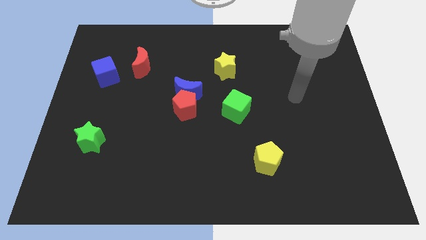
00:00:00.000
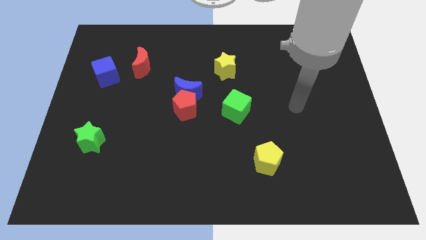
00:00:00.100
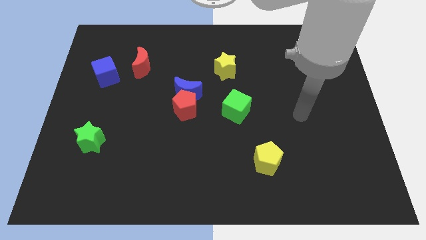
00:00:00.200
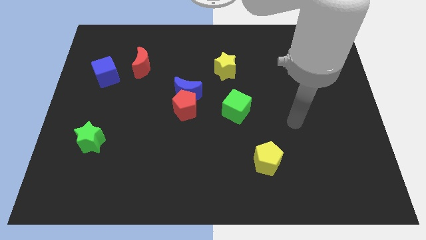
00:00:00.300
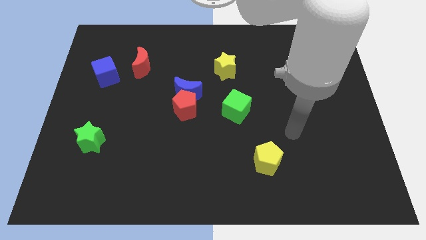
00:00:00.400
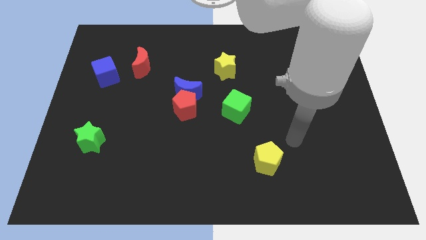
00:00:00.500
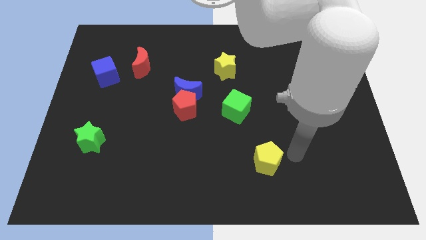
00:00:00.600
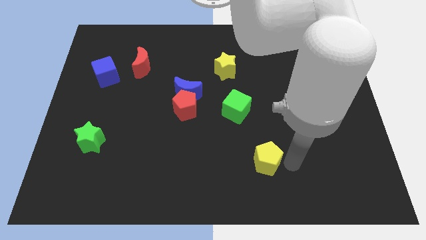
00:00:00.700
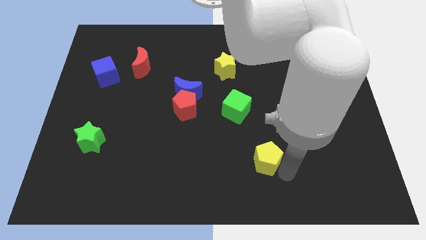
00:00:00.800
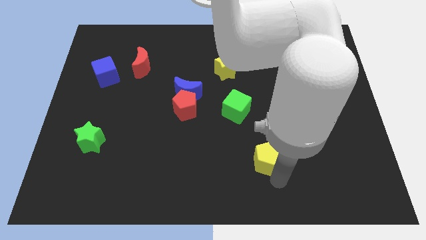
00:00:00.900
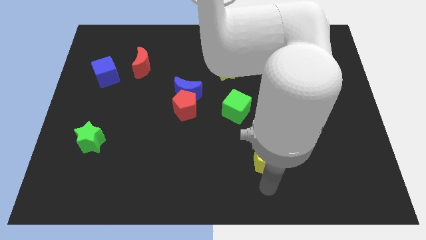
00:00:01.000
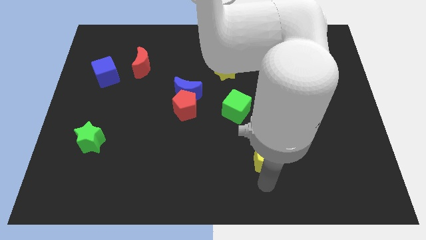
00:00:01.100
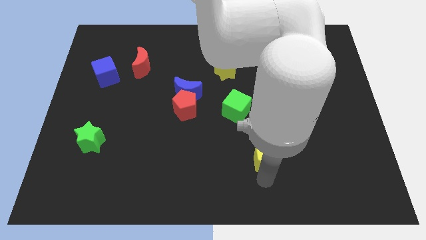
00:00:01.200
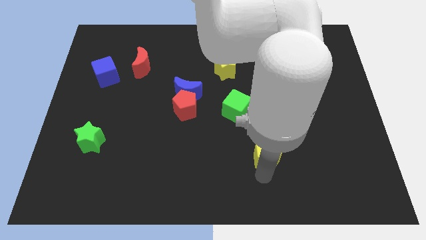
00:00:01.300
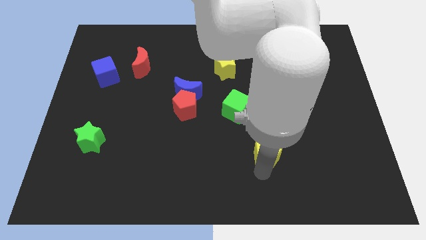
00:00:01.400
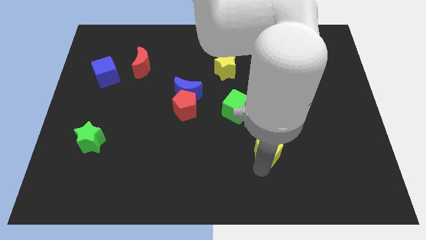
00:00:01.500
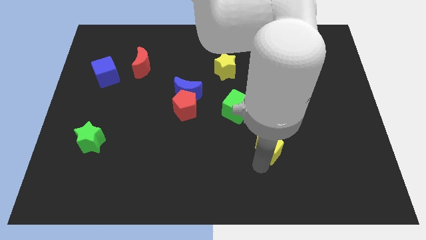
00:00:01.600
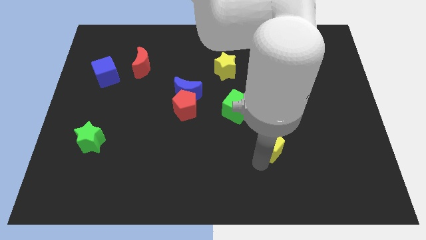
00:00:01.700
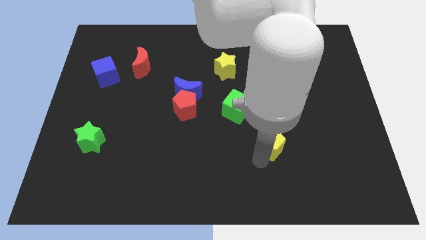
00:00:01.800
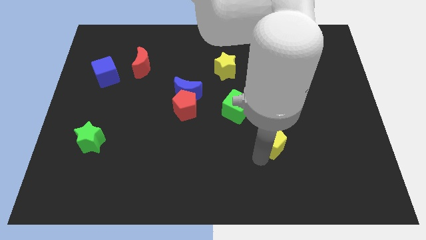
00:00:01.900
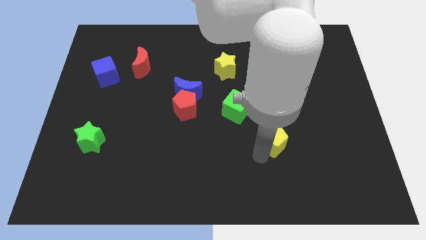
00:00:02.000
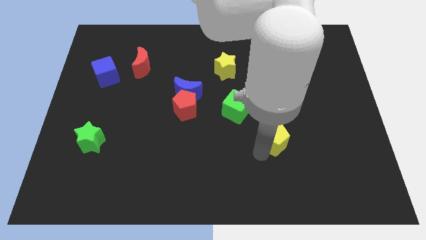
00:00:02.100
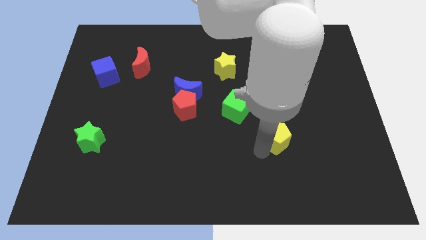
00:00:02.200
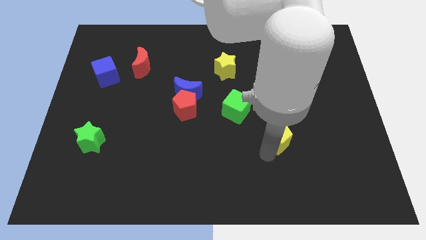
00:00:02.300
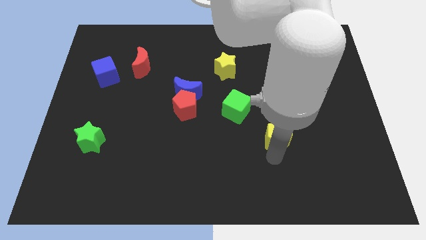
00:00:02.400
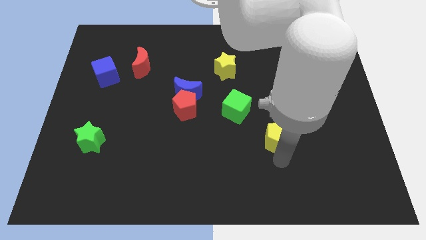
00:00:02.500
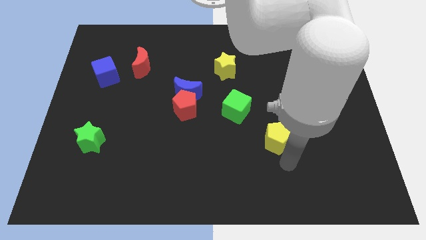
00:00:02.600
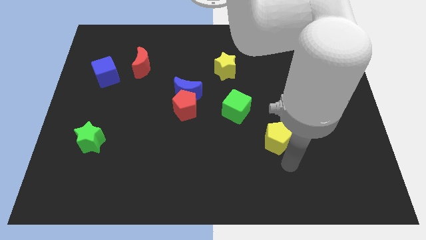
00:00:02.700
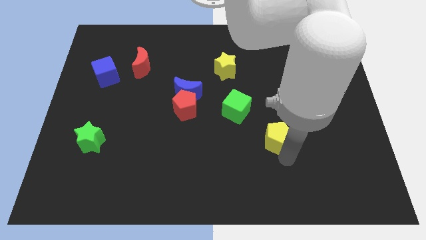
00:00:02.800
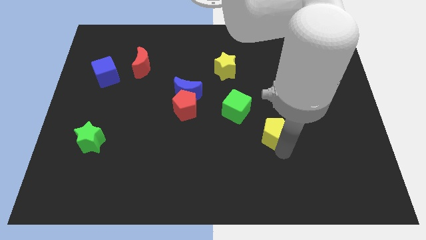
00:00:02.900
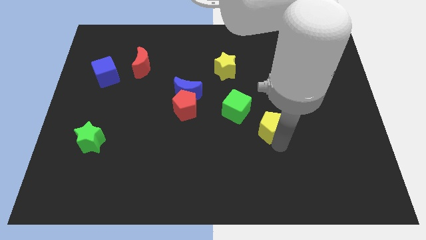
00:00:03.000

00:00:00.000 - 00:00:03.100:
slightly slide the yellow pentagon up

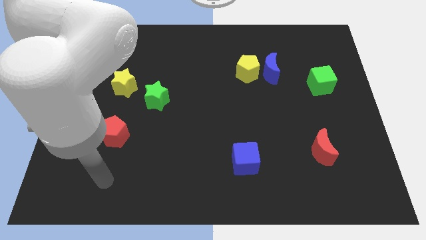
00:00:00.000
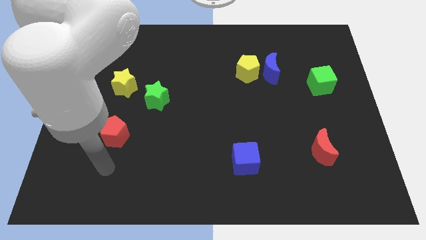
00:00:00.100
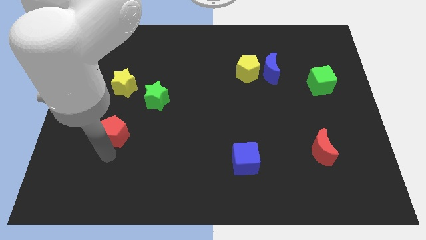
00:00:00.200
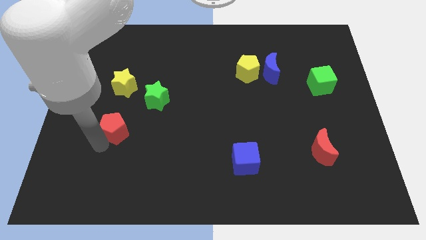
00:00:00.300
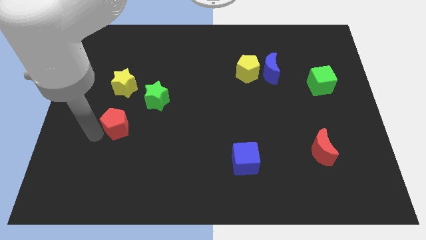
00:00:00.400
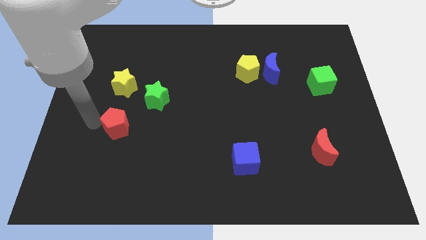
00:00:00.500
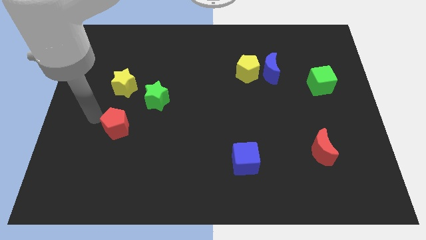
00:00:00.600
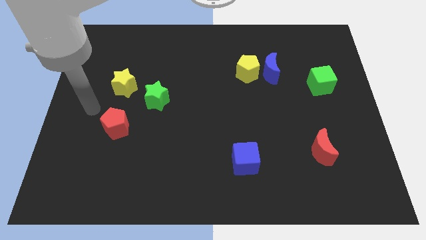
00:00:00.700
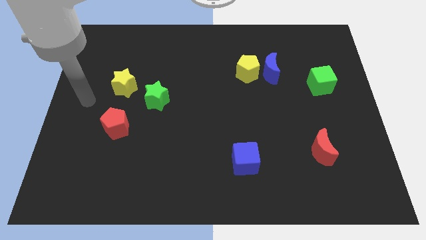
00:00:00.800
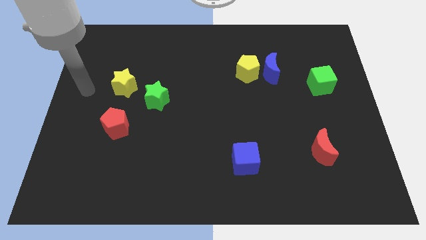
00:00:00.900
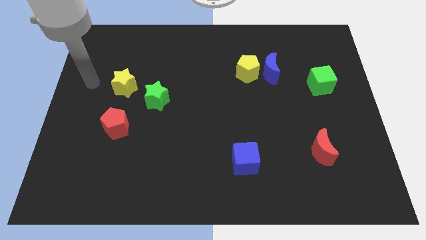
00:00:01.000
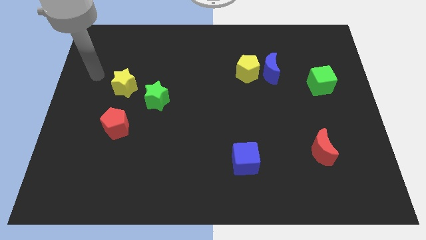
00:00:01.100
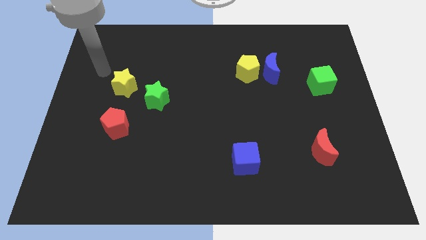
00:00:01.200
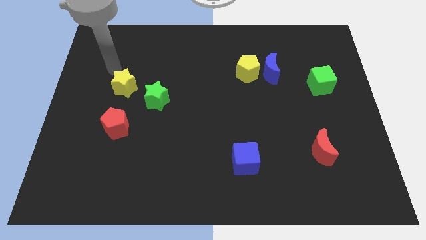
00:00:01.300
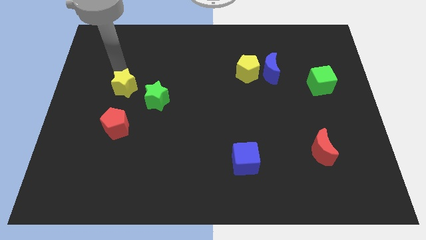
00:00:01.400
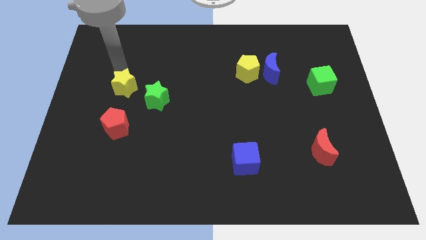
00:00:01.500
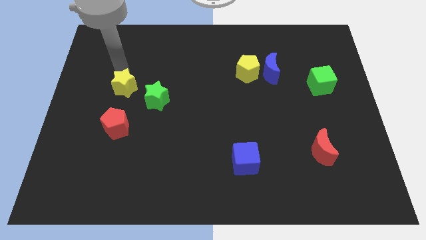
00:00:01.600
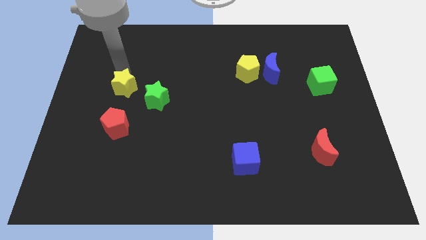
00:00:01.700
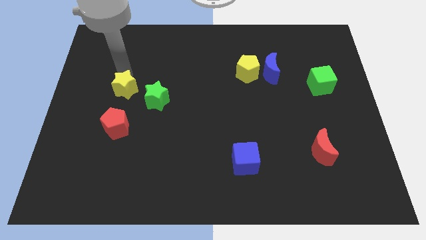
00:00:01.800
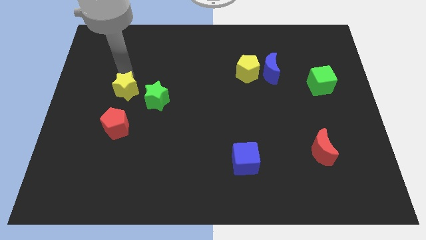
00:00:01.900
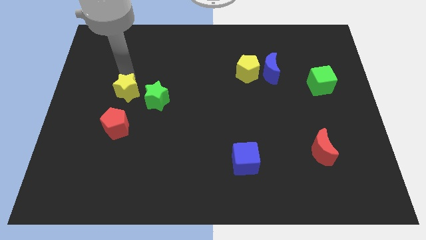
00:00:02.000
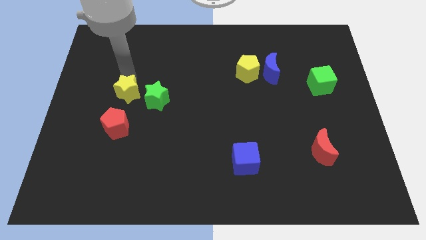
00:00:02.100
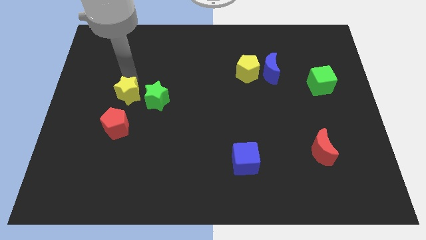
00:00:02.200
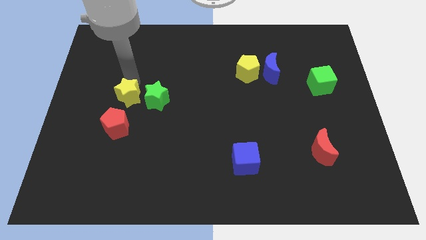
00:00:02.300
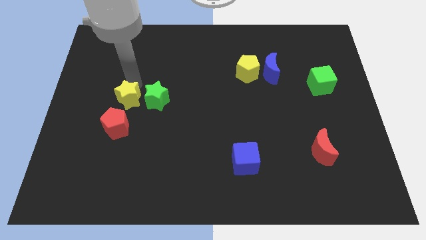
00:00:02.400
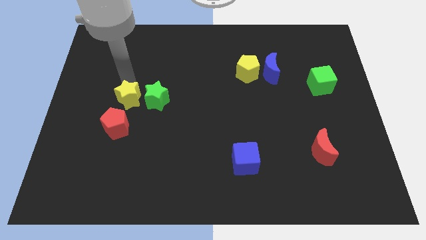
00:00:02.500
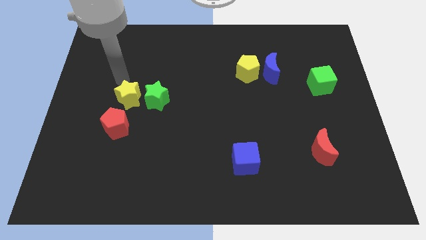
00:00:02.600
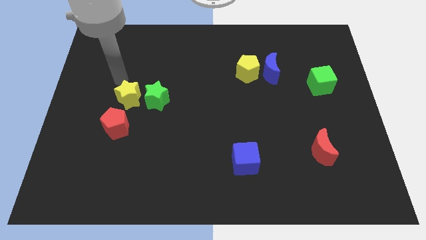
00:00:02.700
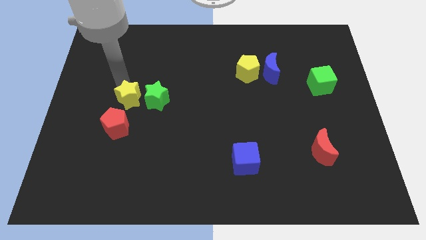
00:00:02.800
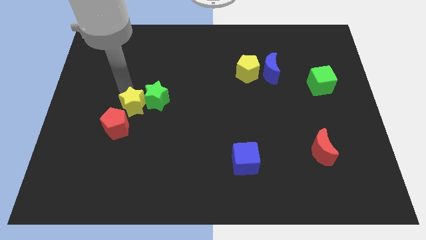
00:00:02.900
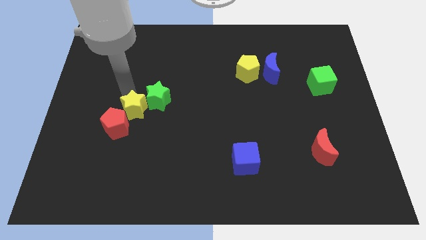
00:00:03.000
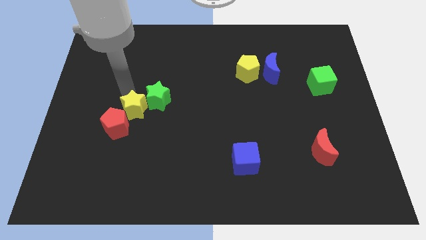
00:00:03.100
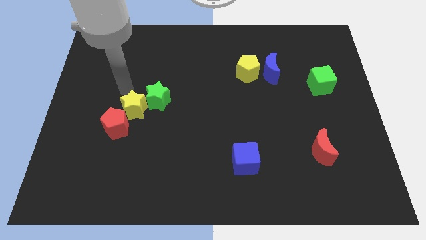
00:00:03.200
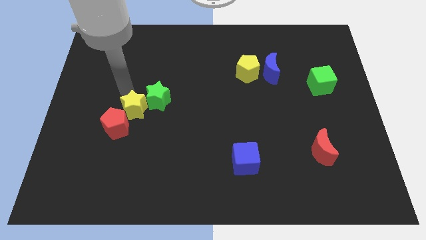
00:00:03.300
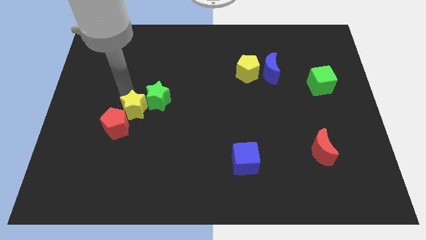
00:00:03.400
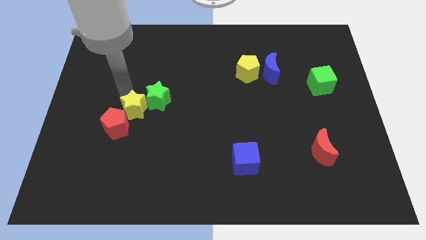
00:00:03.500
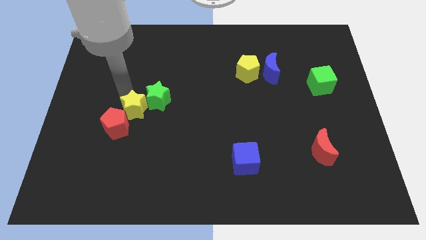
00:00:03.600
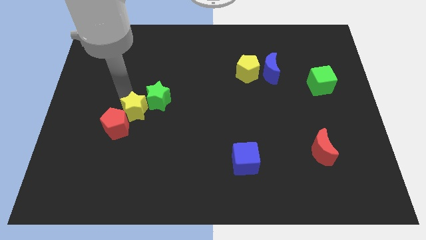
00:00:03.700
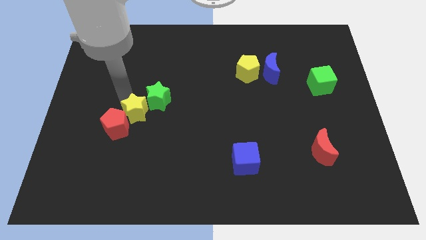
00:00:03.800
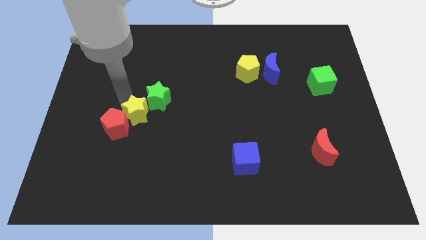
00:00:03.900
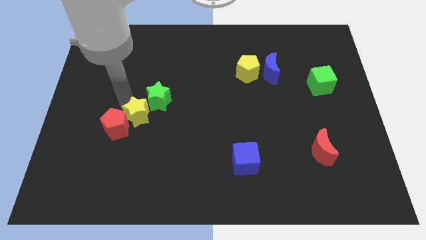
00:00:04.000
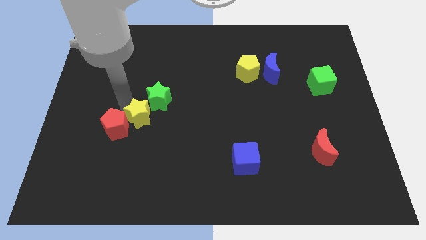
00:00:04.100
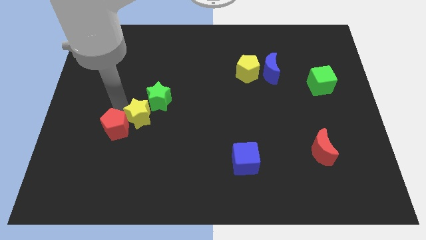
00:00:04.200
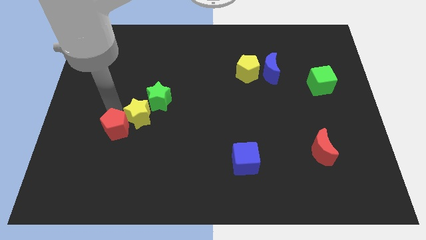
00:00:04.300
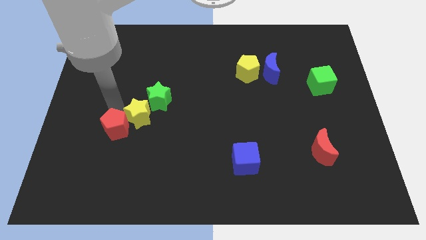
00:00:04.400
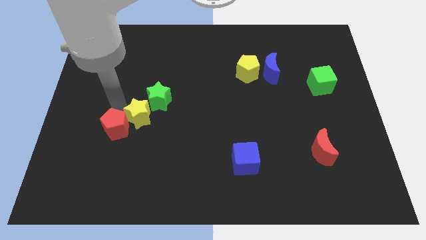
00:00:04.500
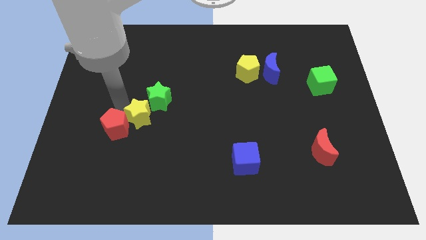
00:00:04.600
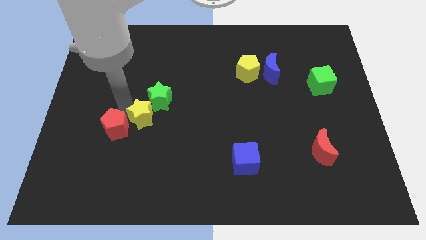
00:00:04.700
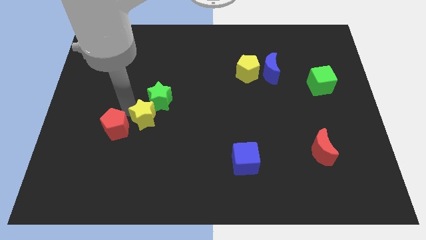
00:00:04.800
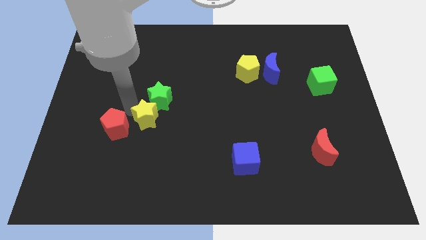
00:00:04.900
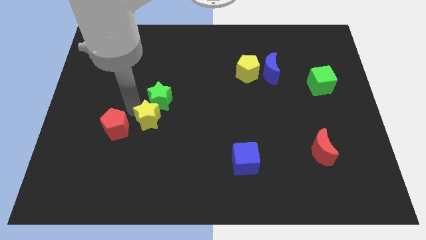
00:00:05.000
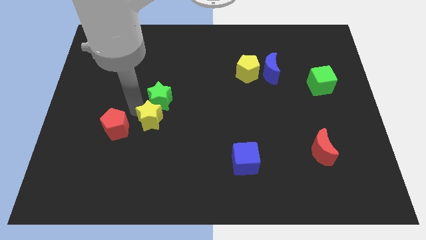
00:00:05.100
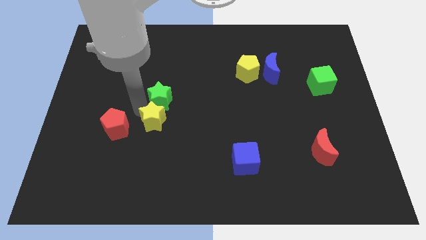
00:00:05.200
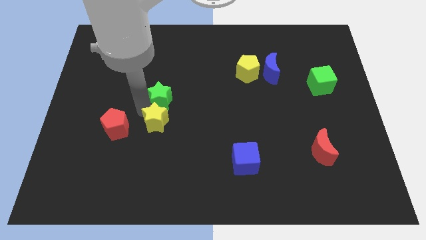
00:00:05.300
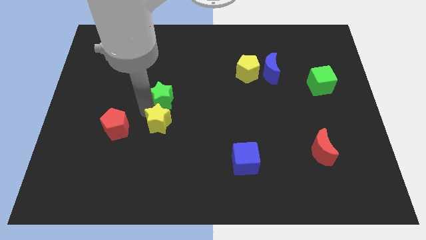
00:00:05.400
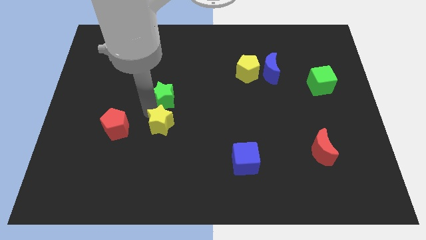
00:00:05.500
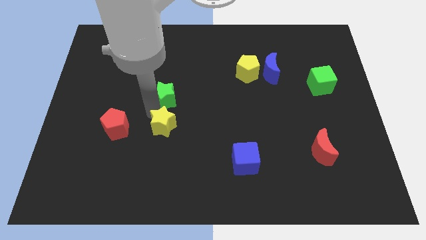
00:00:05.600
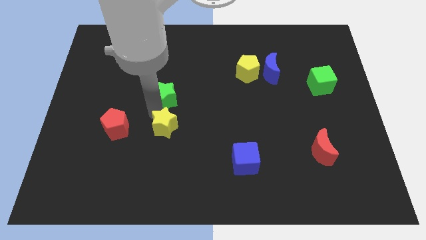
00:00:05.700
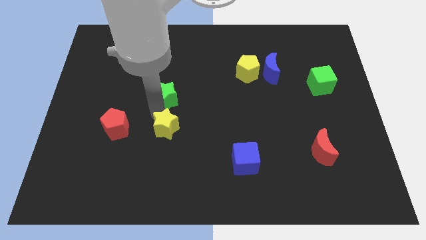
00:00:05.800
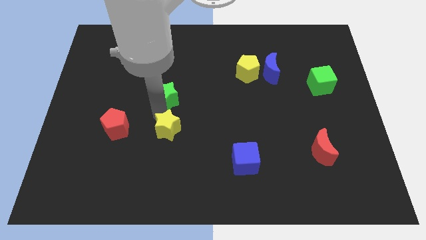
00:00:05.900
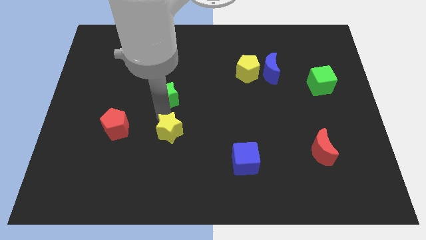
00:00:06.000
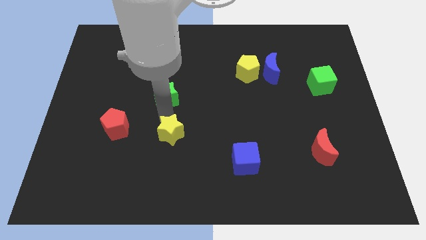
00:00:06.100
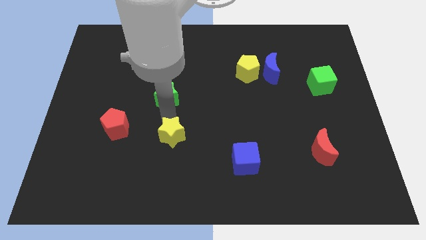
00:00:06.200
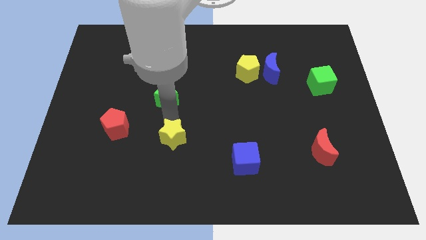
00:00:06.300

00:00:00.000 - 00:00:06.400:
move the yellow star diagonally downwards and right
